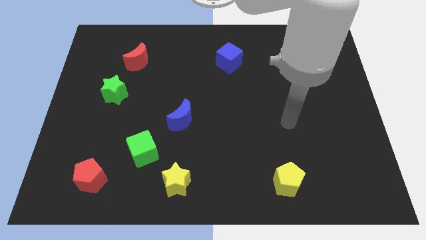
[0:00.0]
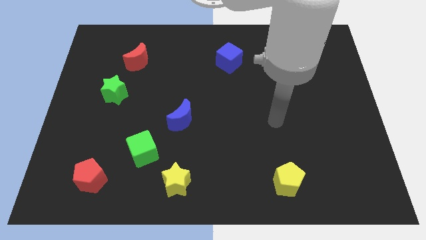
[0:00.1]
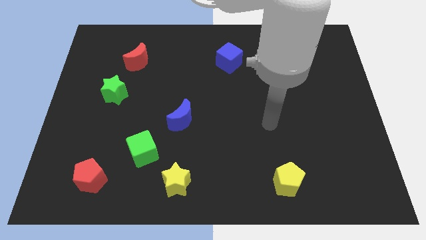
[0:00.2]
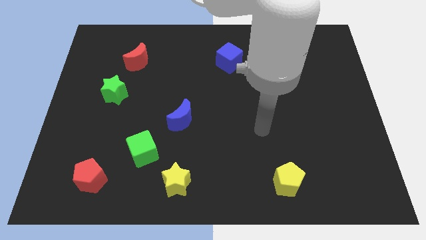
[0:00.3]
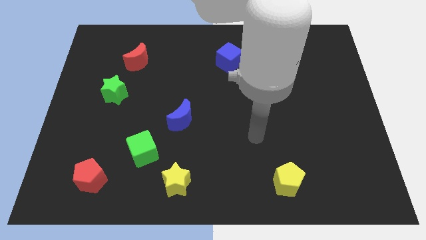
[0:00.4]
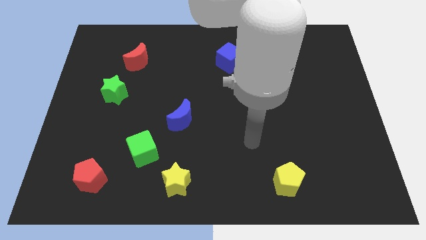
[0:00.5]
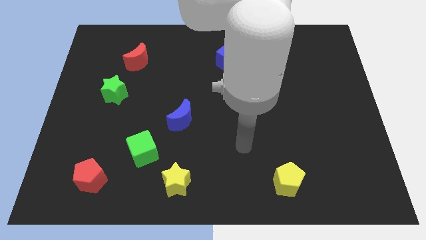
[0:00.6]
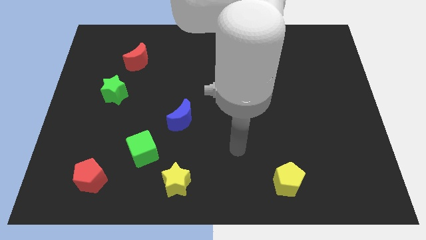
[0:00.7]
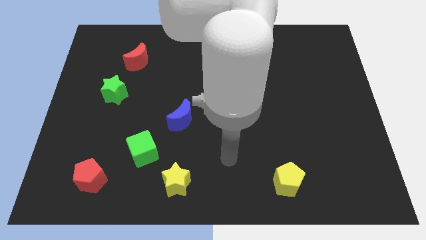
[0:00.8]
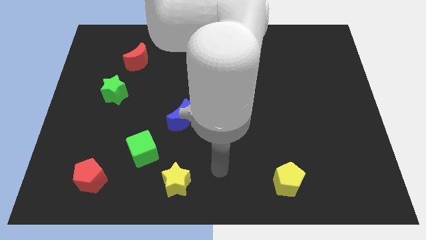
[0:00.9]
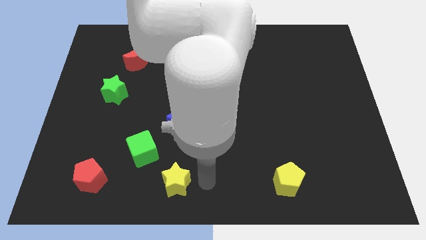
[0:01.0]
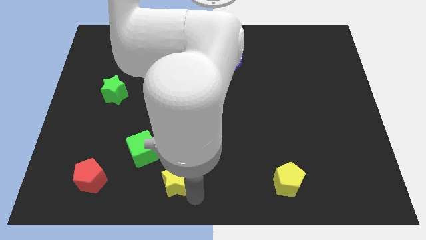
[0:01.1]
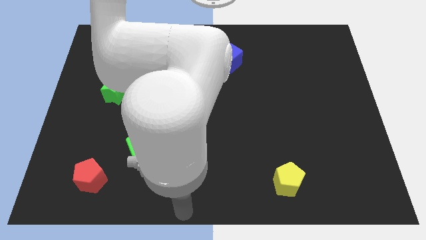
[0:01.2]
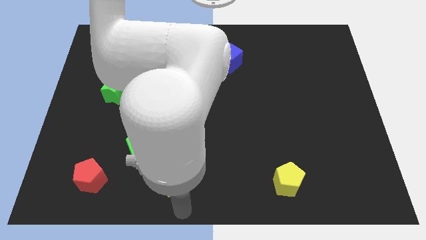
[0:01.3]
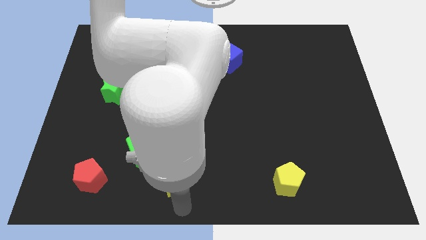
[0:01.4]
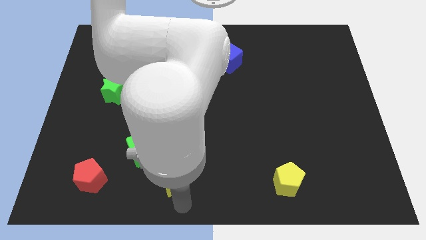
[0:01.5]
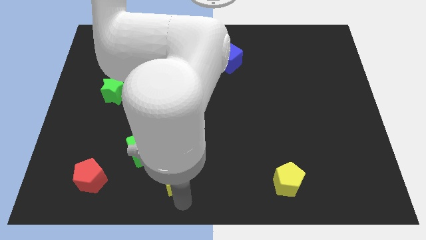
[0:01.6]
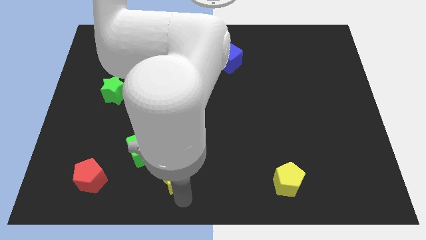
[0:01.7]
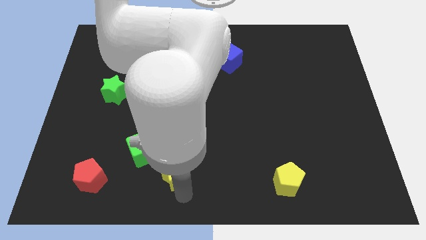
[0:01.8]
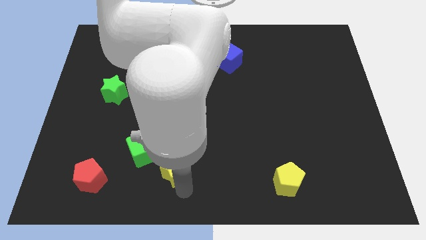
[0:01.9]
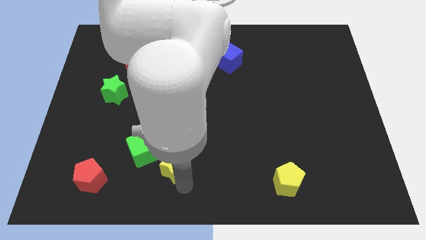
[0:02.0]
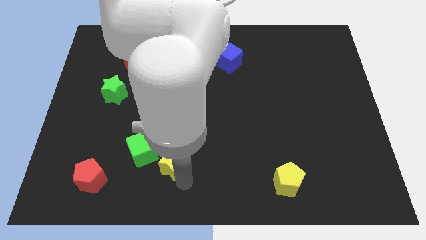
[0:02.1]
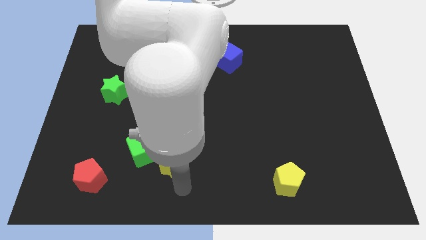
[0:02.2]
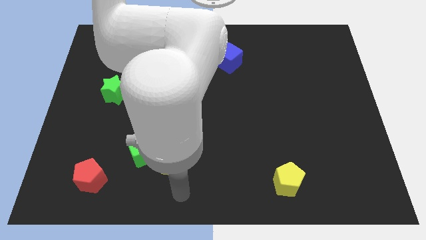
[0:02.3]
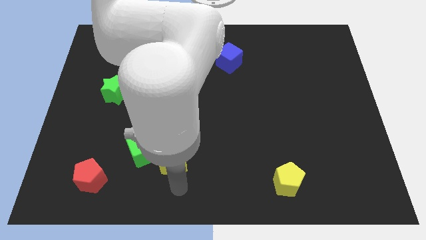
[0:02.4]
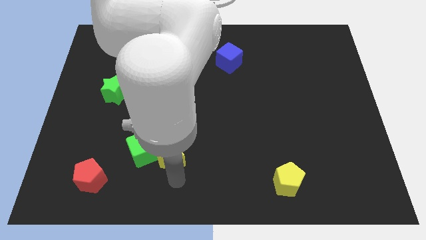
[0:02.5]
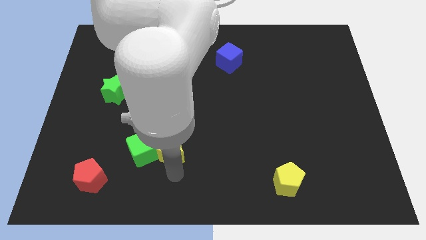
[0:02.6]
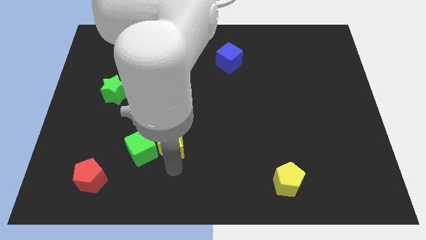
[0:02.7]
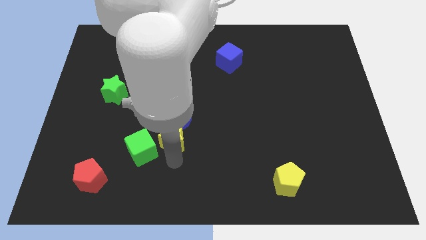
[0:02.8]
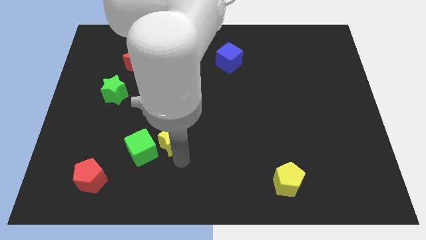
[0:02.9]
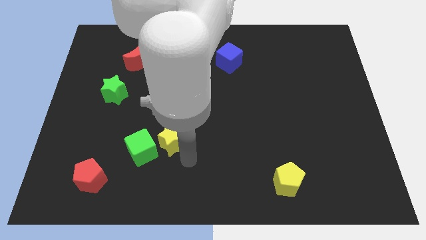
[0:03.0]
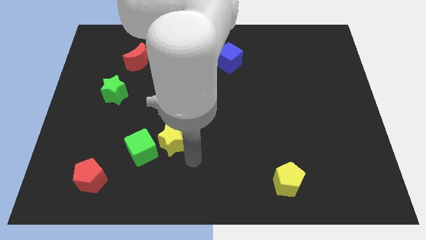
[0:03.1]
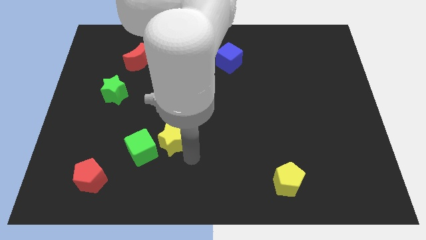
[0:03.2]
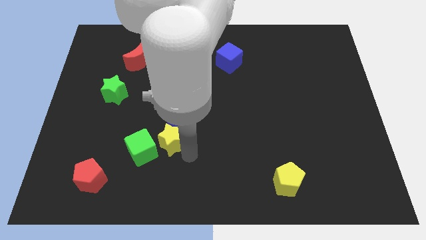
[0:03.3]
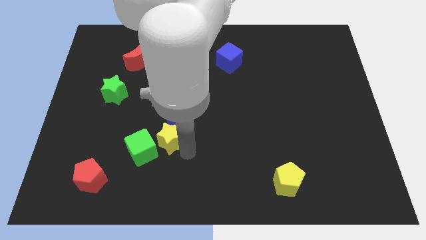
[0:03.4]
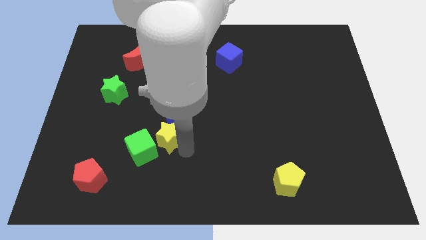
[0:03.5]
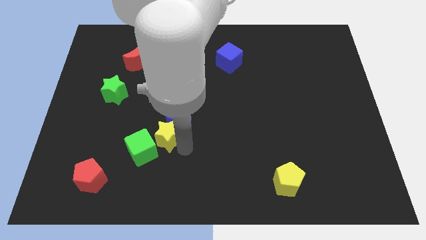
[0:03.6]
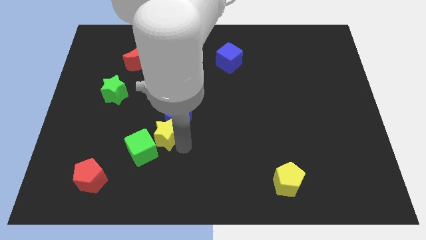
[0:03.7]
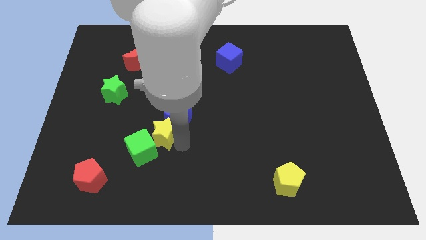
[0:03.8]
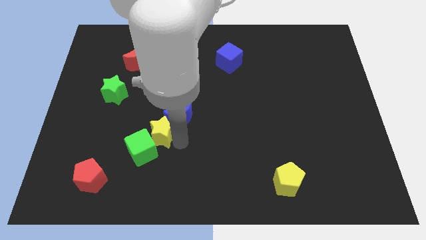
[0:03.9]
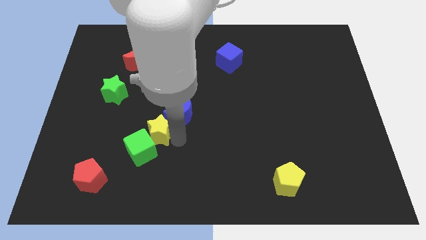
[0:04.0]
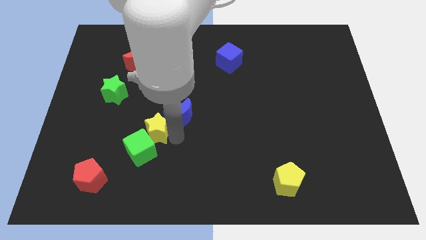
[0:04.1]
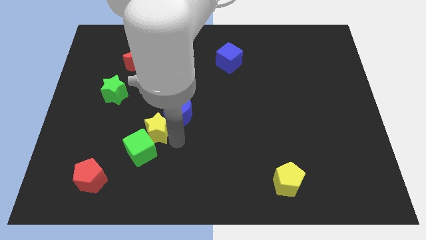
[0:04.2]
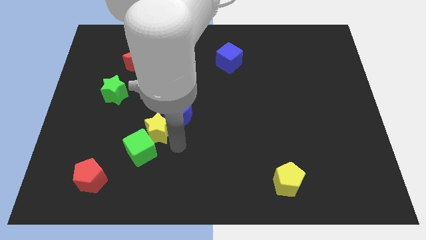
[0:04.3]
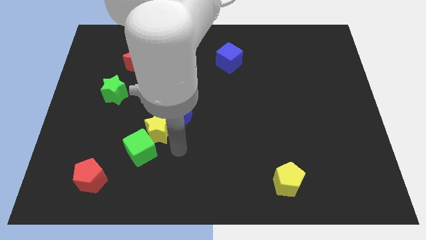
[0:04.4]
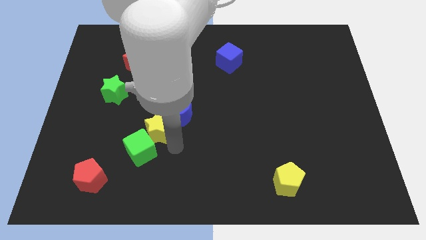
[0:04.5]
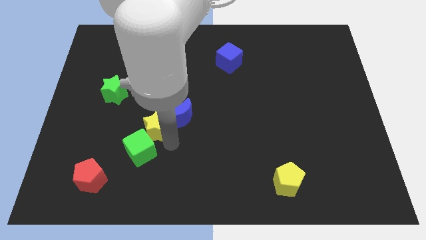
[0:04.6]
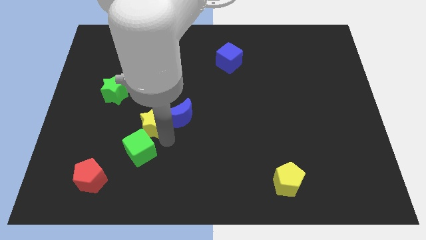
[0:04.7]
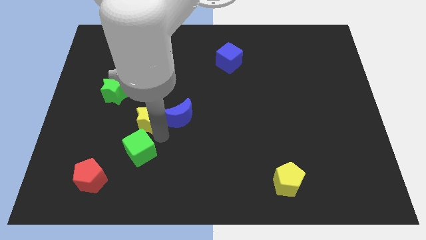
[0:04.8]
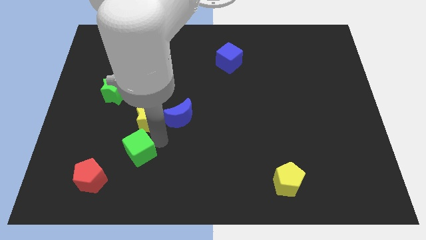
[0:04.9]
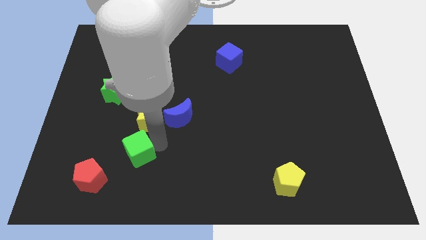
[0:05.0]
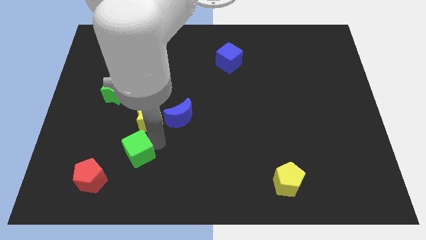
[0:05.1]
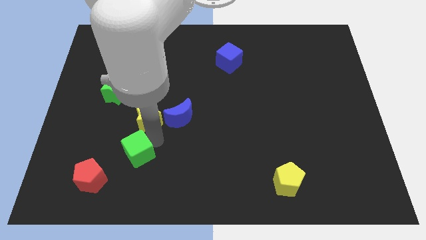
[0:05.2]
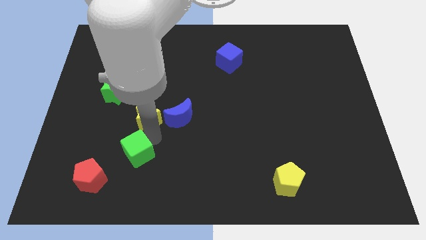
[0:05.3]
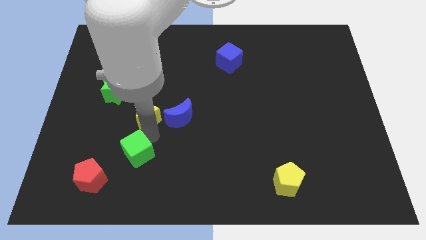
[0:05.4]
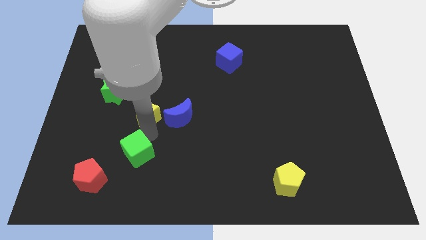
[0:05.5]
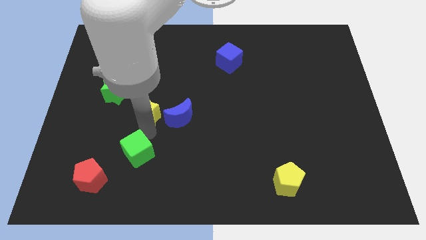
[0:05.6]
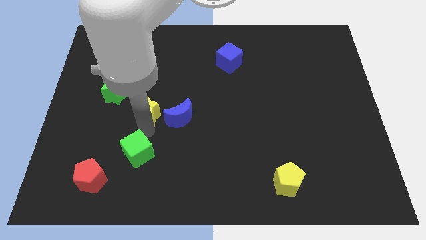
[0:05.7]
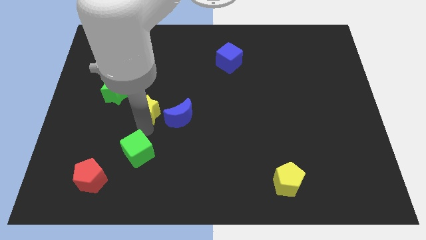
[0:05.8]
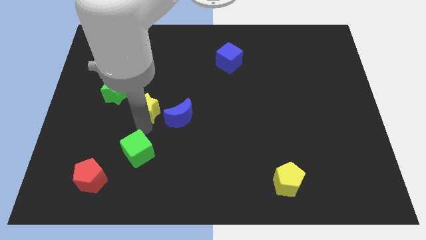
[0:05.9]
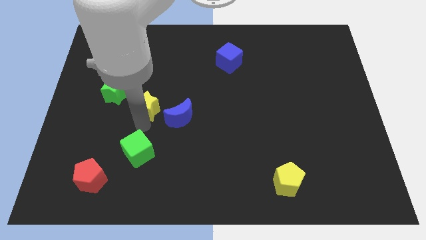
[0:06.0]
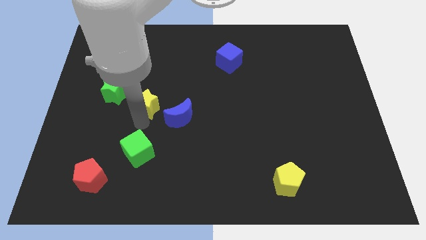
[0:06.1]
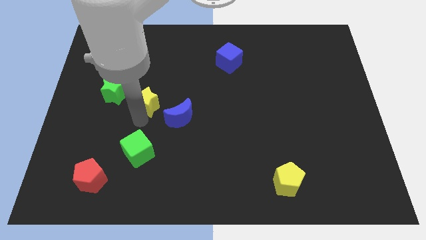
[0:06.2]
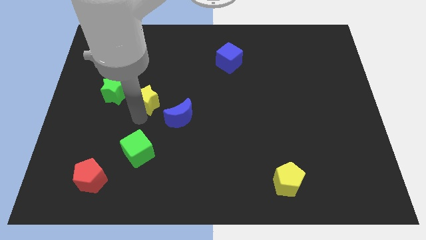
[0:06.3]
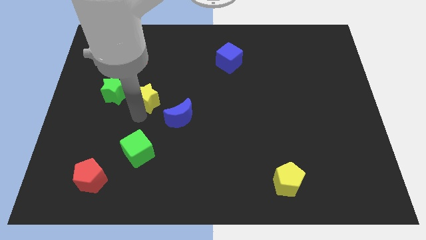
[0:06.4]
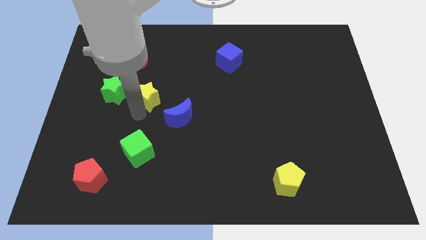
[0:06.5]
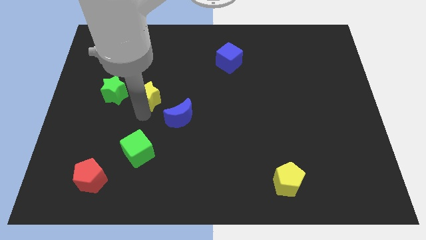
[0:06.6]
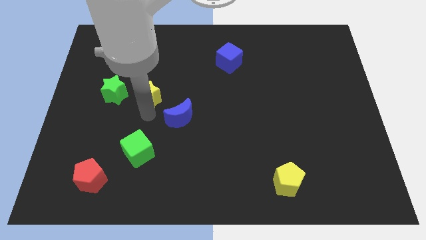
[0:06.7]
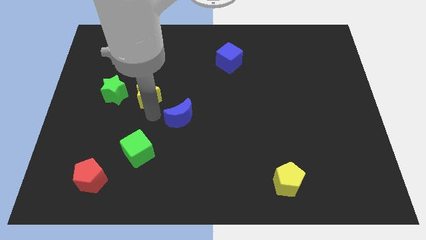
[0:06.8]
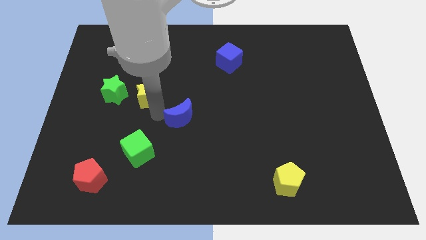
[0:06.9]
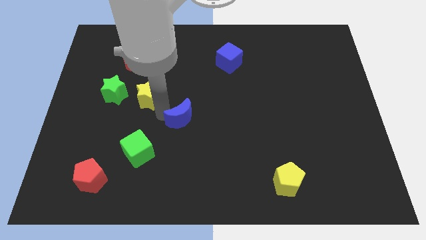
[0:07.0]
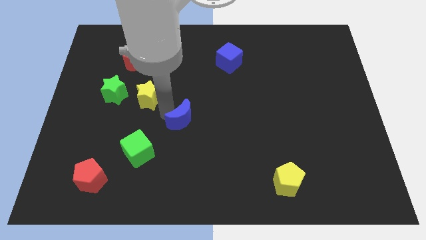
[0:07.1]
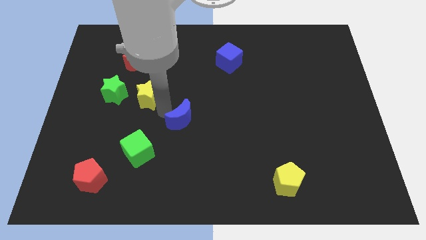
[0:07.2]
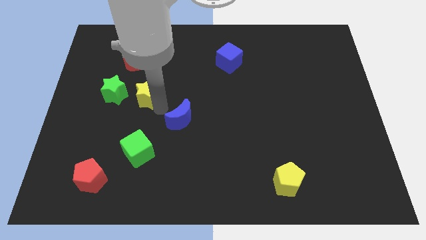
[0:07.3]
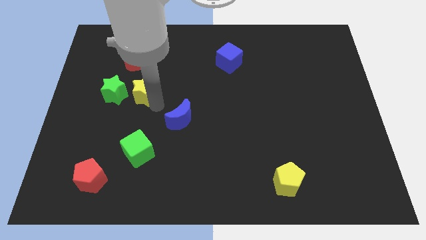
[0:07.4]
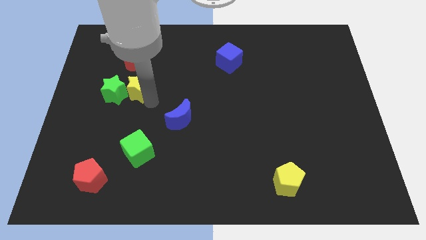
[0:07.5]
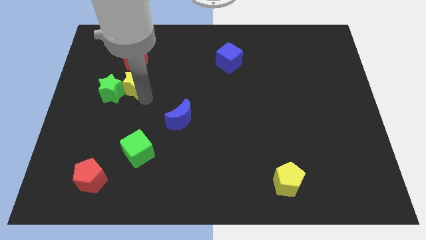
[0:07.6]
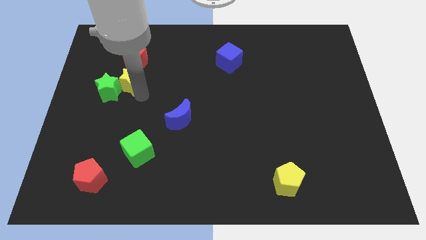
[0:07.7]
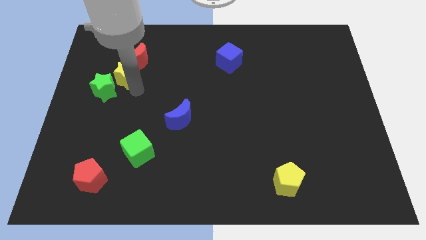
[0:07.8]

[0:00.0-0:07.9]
put the yellow star to the top side of the green star
